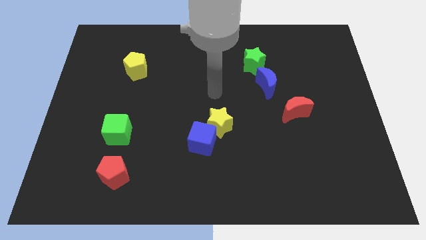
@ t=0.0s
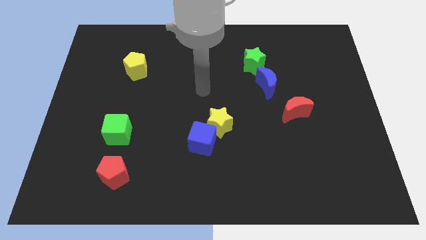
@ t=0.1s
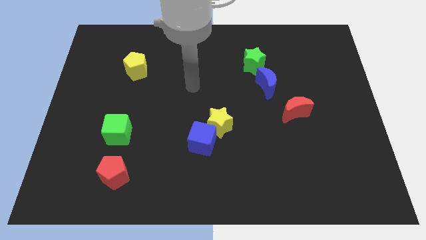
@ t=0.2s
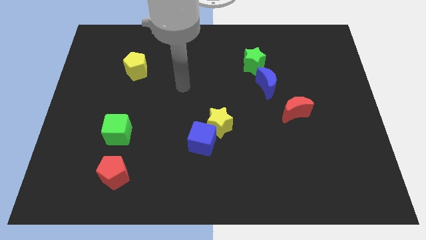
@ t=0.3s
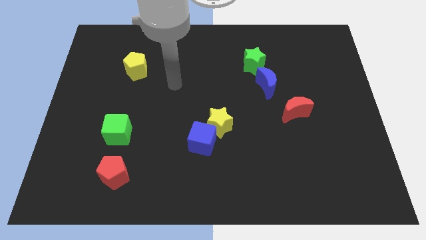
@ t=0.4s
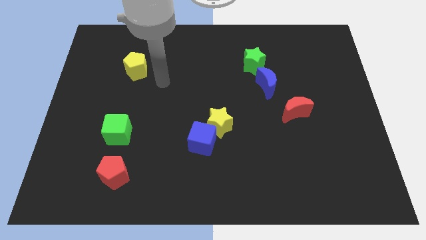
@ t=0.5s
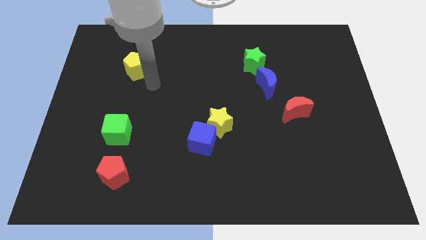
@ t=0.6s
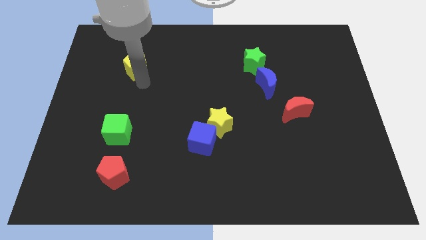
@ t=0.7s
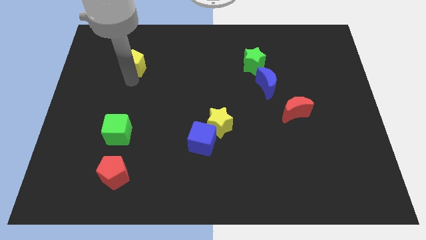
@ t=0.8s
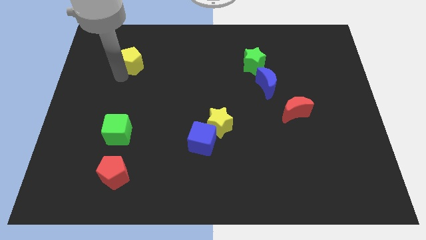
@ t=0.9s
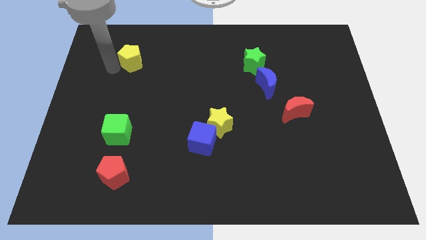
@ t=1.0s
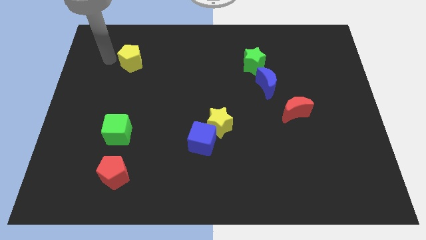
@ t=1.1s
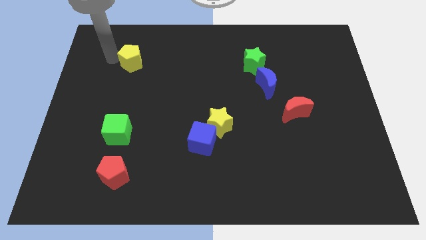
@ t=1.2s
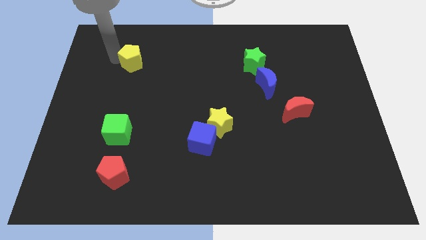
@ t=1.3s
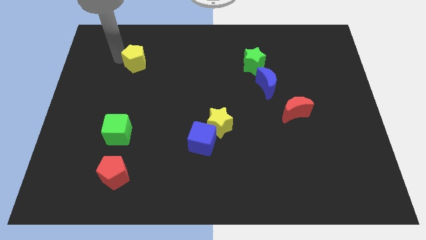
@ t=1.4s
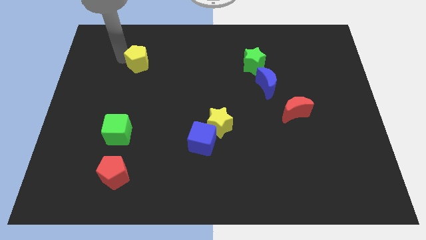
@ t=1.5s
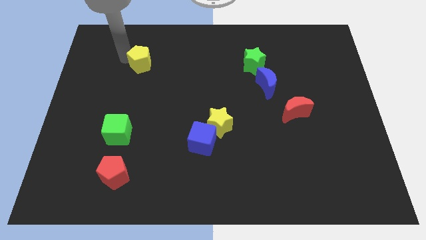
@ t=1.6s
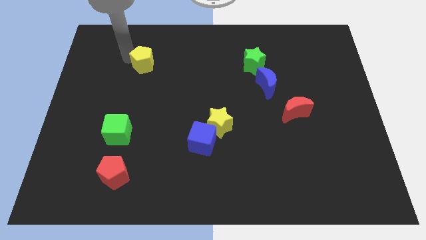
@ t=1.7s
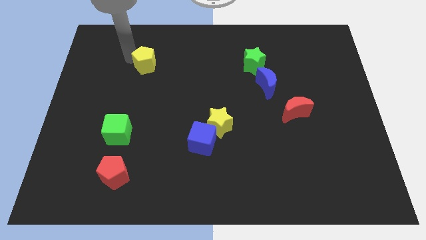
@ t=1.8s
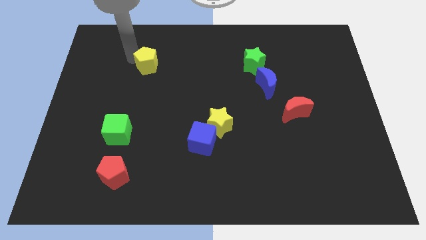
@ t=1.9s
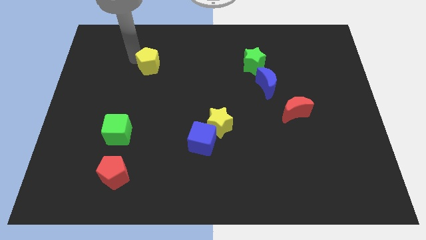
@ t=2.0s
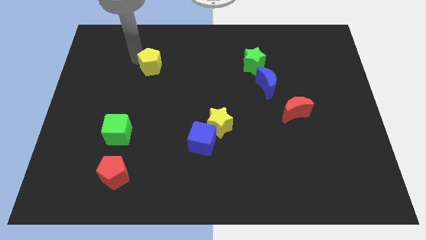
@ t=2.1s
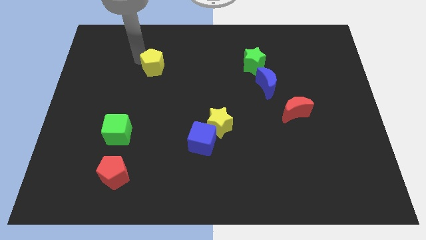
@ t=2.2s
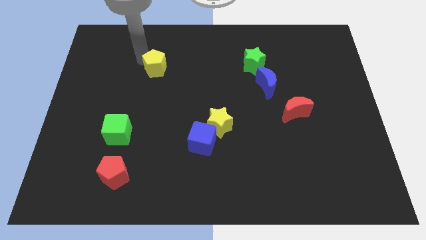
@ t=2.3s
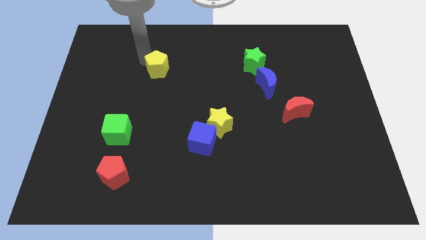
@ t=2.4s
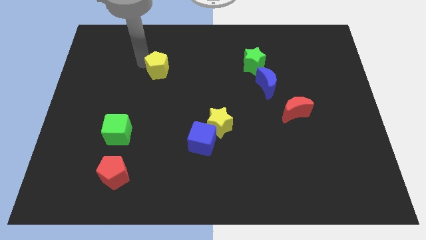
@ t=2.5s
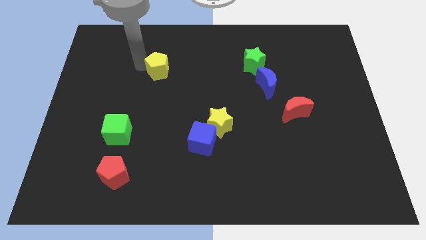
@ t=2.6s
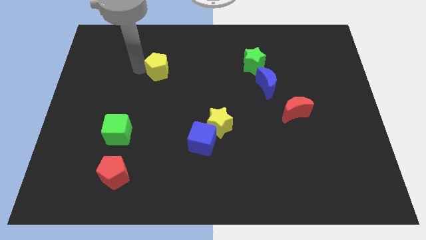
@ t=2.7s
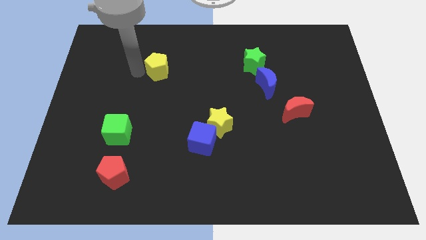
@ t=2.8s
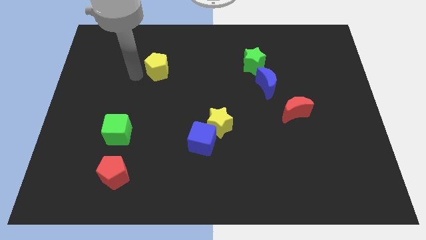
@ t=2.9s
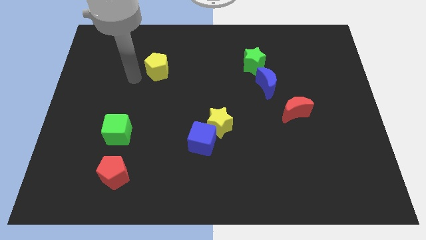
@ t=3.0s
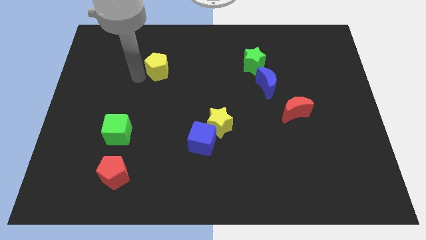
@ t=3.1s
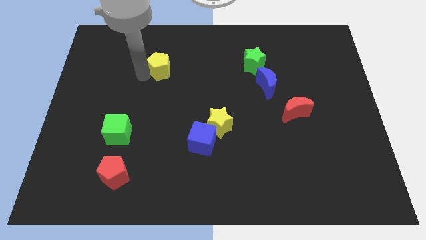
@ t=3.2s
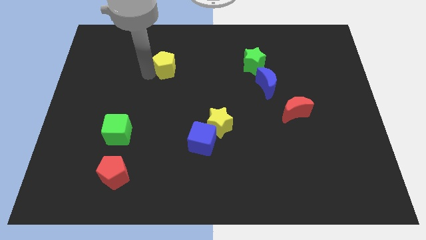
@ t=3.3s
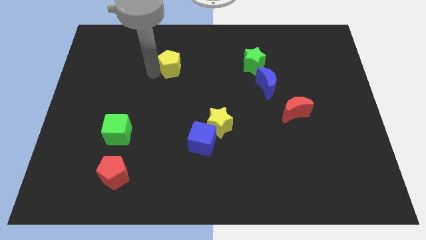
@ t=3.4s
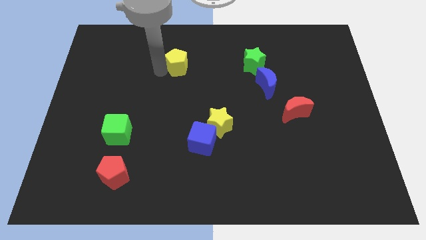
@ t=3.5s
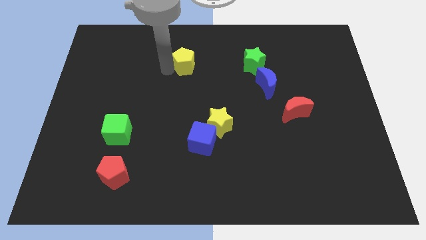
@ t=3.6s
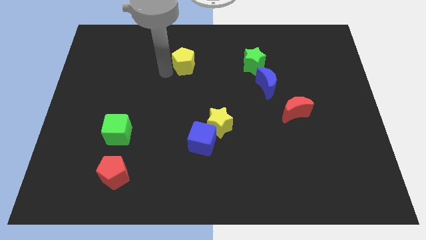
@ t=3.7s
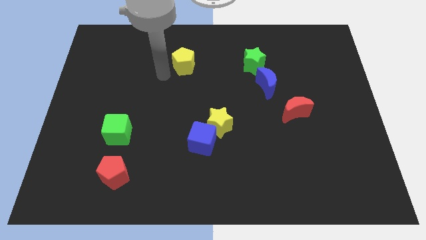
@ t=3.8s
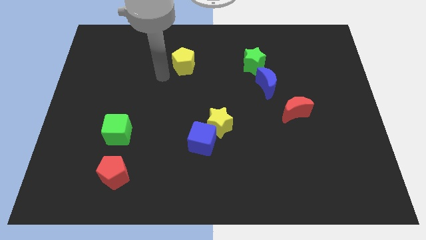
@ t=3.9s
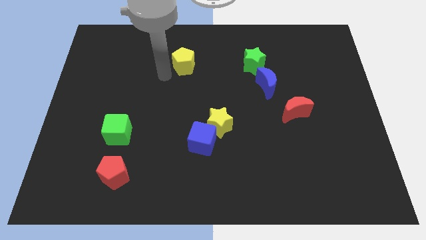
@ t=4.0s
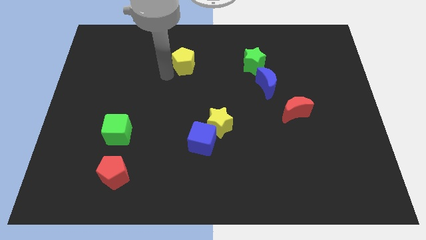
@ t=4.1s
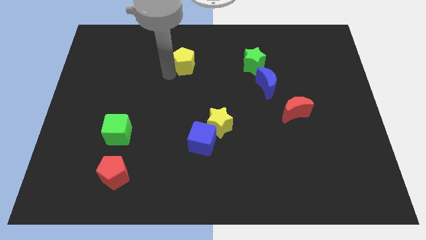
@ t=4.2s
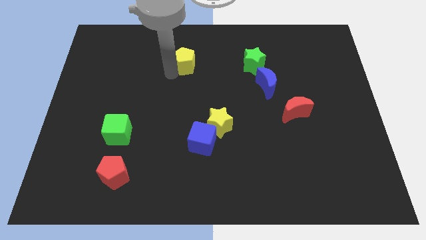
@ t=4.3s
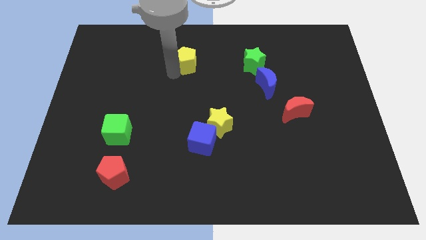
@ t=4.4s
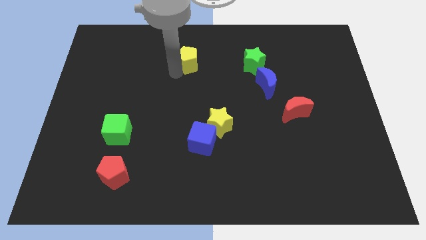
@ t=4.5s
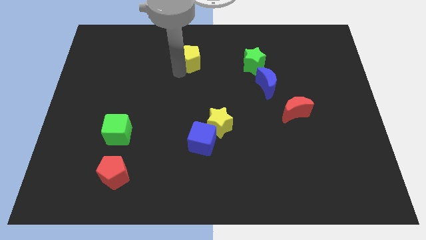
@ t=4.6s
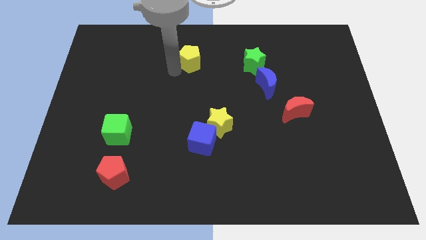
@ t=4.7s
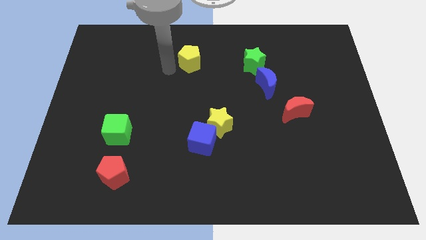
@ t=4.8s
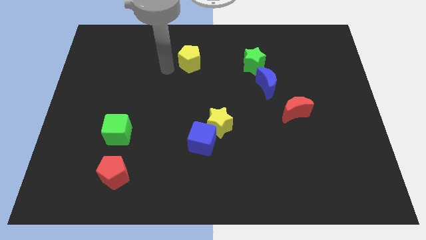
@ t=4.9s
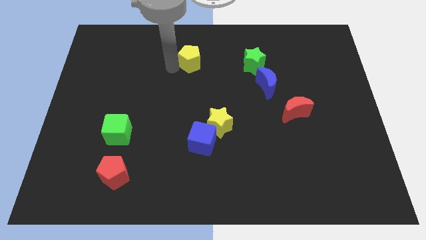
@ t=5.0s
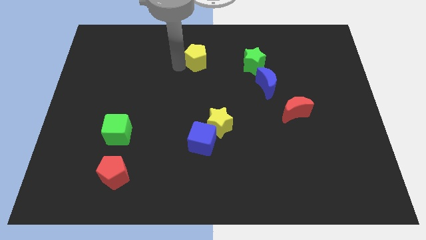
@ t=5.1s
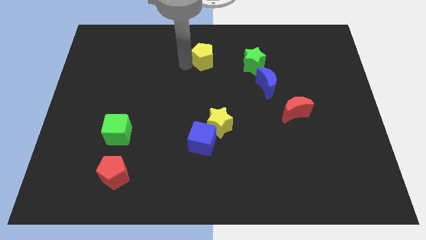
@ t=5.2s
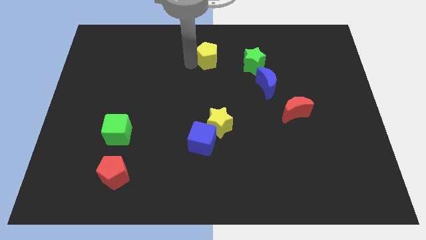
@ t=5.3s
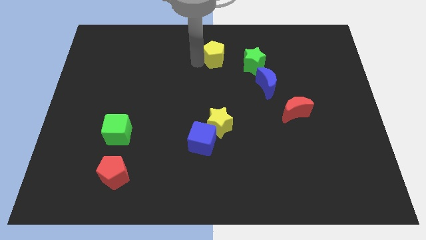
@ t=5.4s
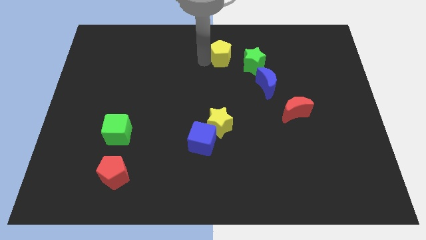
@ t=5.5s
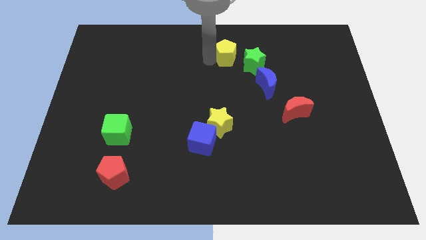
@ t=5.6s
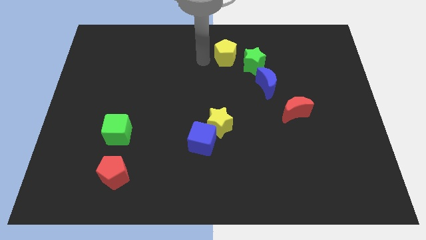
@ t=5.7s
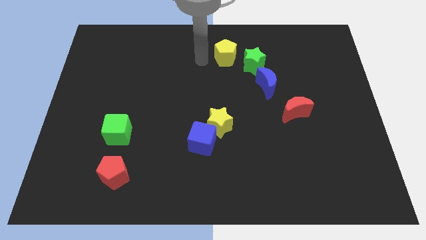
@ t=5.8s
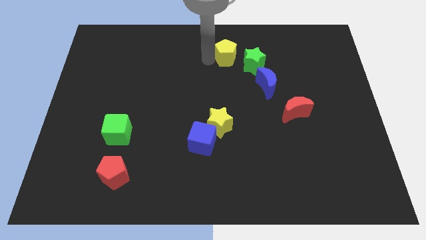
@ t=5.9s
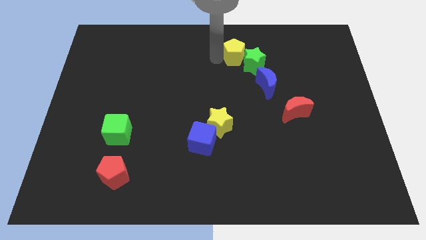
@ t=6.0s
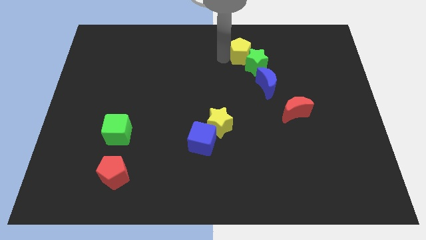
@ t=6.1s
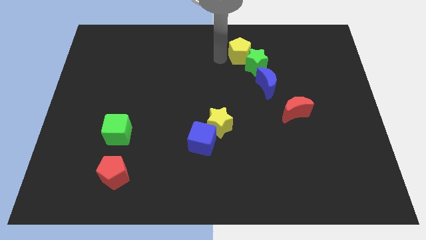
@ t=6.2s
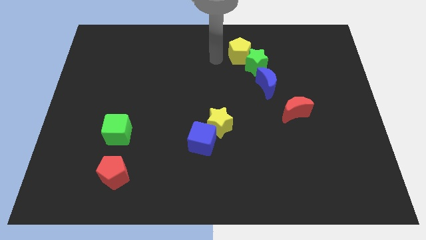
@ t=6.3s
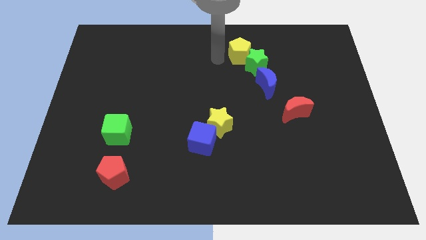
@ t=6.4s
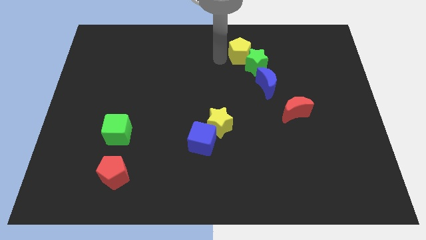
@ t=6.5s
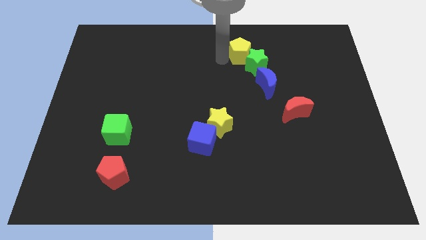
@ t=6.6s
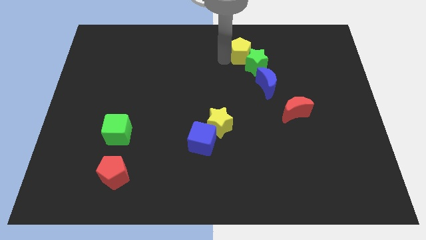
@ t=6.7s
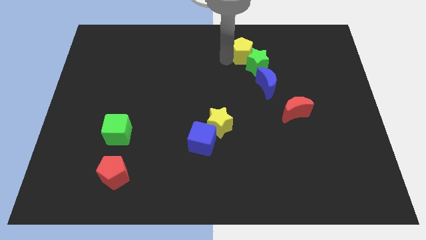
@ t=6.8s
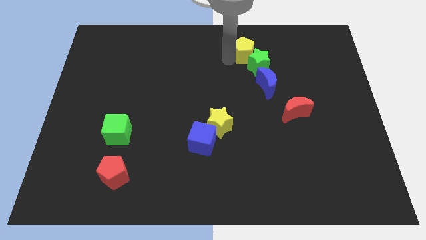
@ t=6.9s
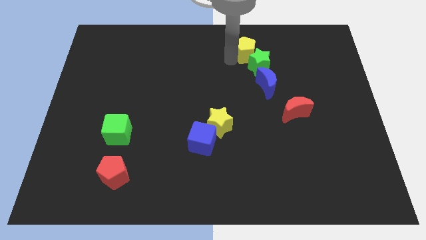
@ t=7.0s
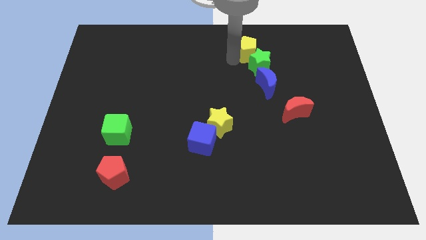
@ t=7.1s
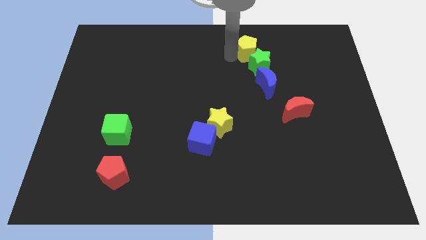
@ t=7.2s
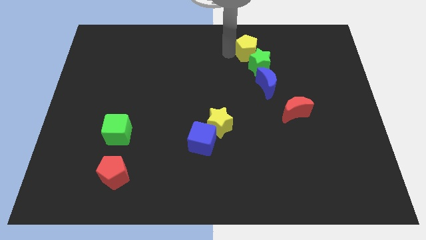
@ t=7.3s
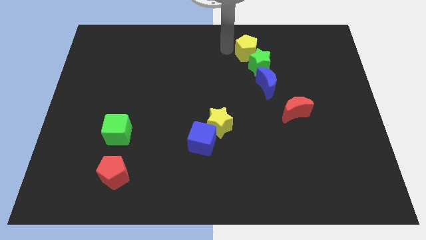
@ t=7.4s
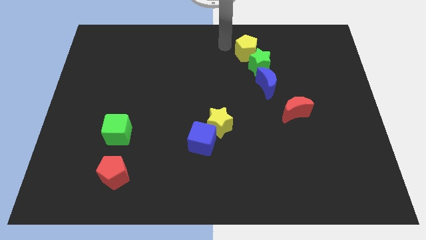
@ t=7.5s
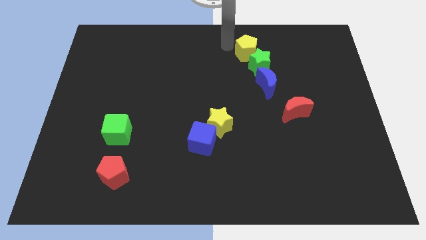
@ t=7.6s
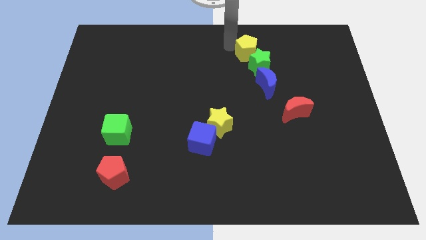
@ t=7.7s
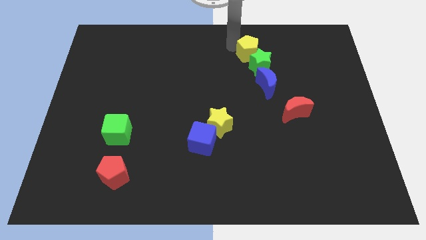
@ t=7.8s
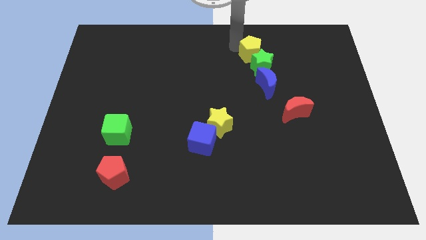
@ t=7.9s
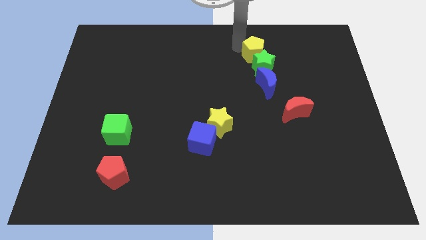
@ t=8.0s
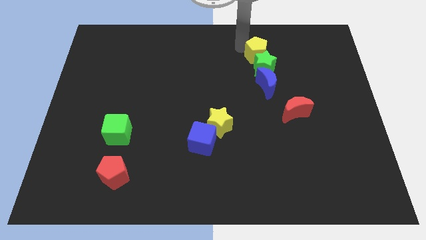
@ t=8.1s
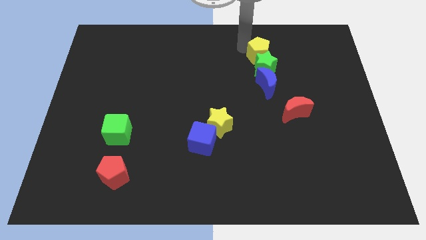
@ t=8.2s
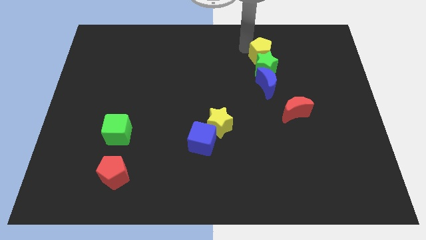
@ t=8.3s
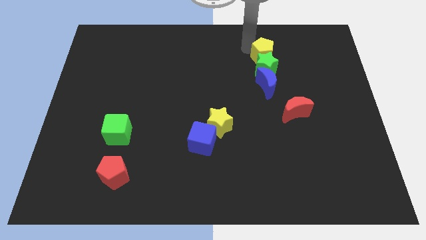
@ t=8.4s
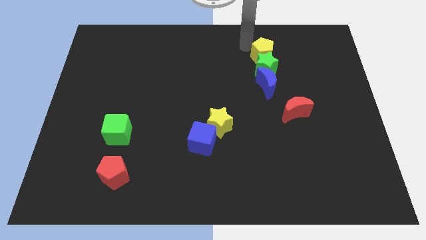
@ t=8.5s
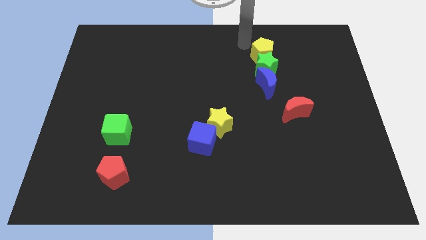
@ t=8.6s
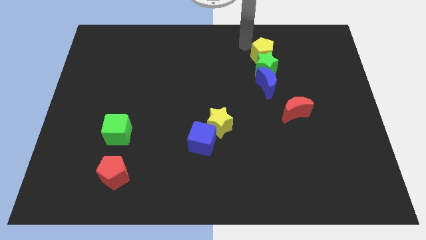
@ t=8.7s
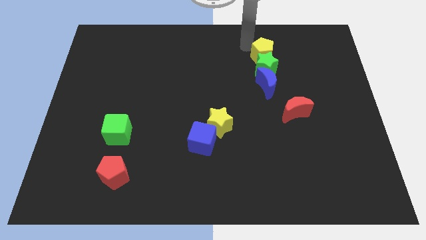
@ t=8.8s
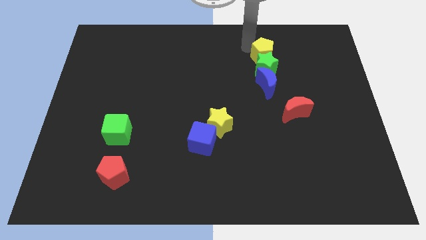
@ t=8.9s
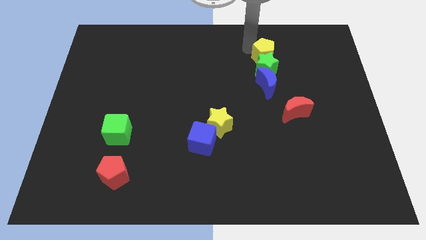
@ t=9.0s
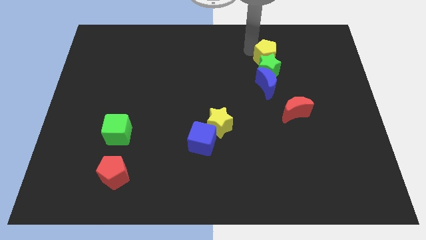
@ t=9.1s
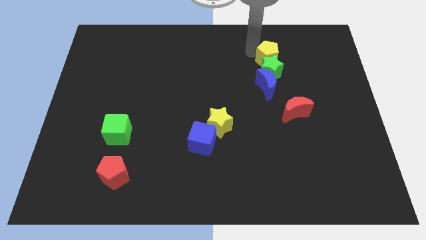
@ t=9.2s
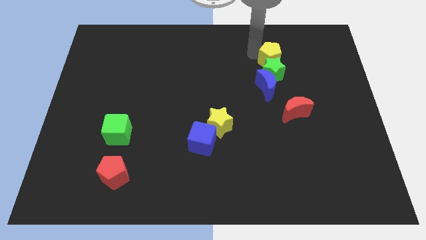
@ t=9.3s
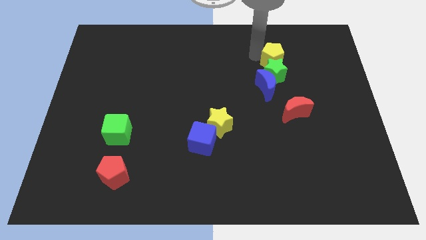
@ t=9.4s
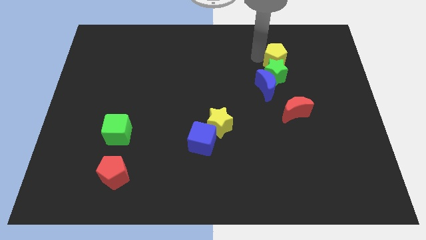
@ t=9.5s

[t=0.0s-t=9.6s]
put the yellow pentagon to the top right of the blue moon
